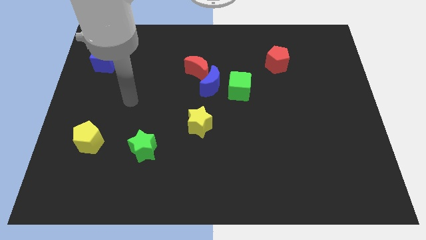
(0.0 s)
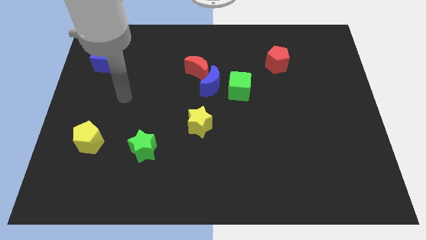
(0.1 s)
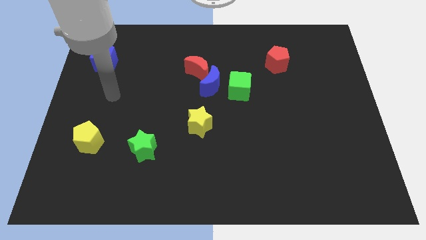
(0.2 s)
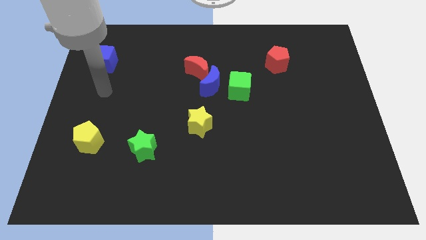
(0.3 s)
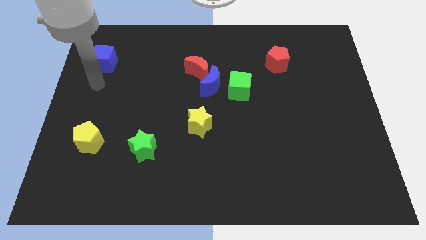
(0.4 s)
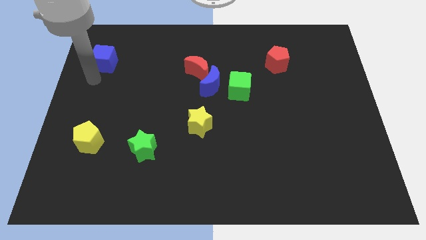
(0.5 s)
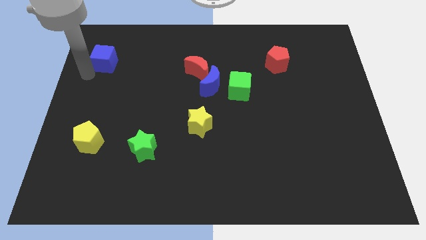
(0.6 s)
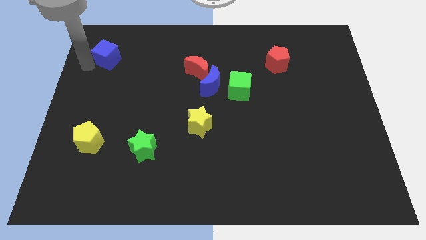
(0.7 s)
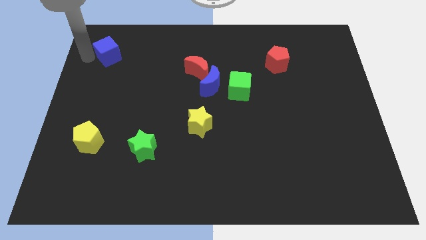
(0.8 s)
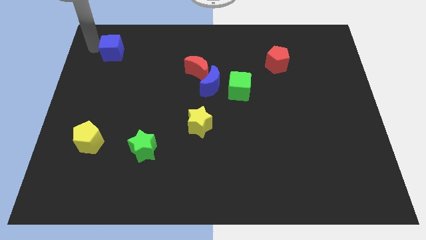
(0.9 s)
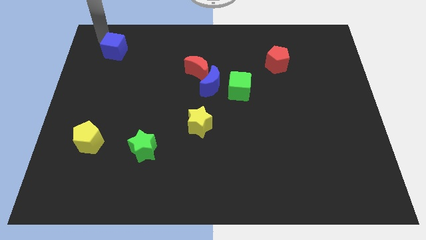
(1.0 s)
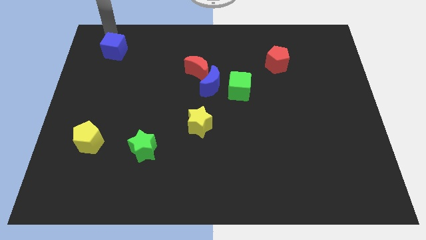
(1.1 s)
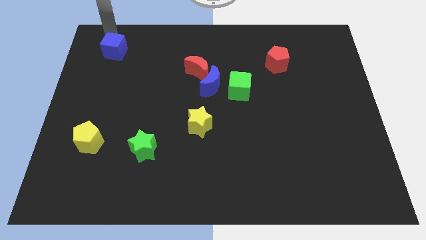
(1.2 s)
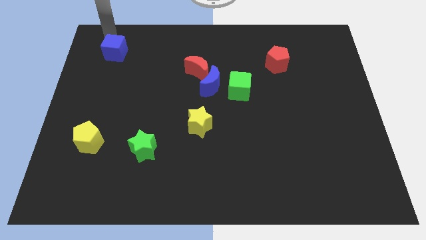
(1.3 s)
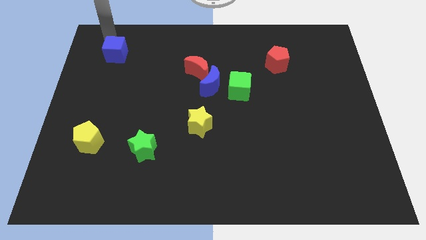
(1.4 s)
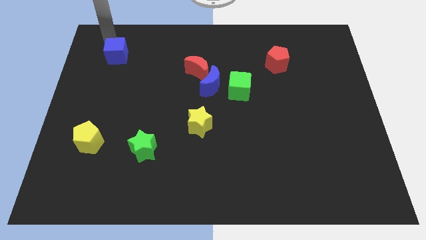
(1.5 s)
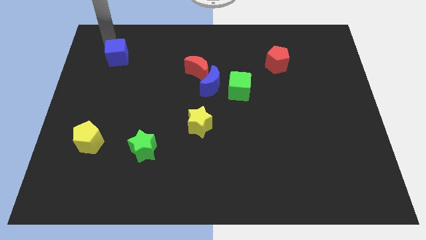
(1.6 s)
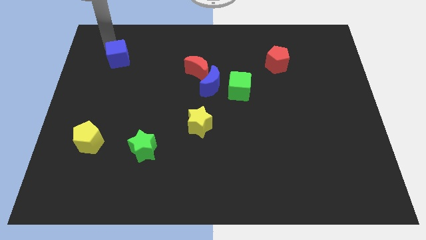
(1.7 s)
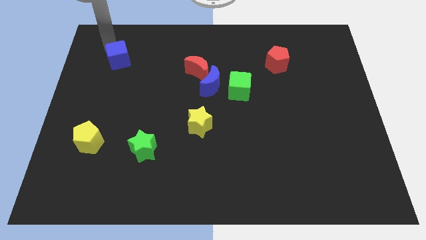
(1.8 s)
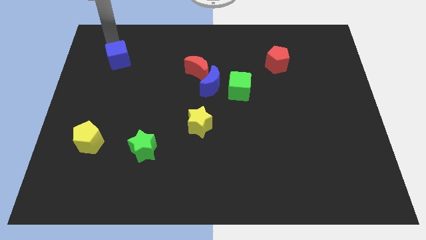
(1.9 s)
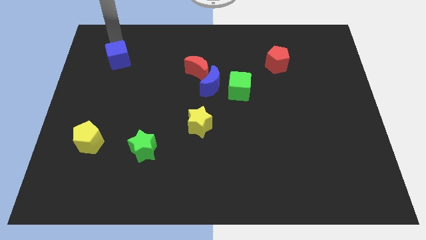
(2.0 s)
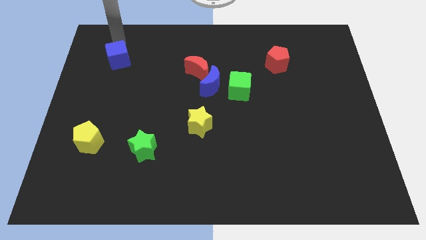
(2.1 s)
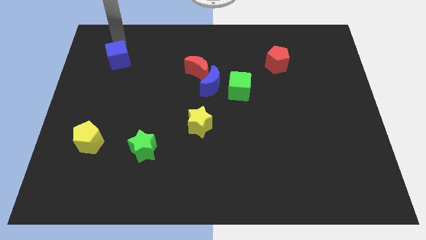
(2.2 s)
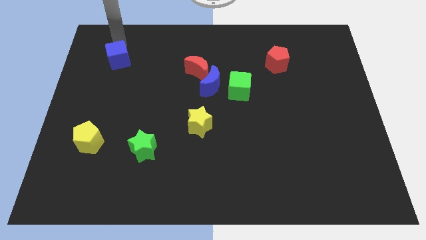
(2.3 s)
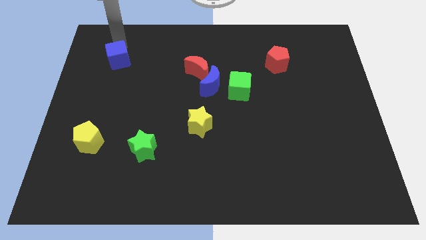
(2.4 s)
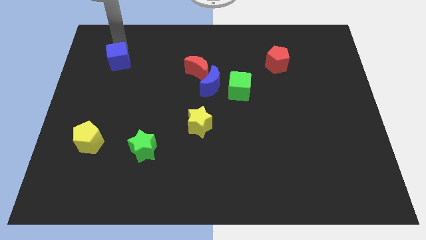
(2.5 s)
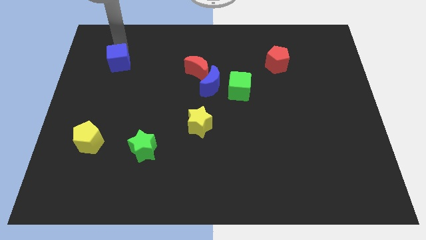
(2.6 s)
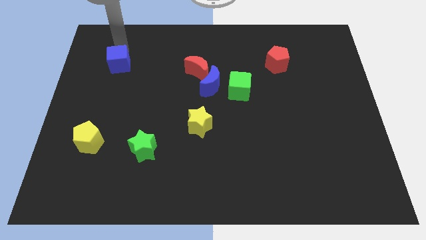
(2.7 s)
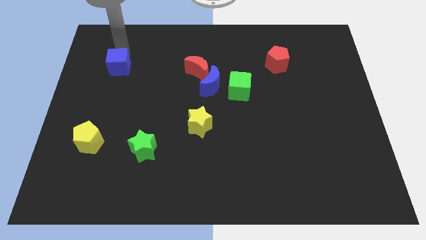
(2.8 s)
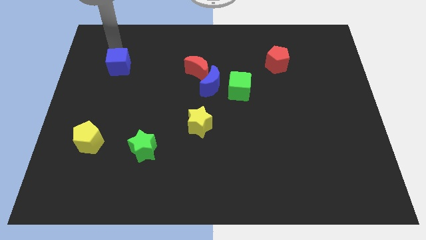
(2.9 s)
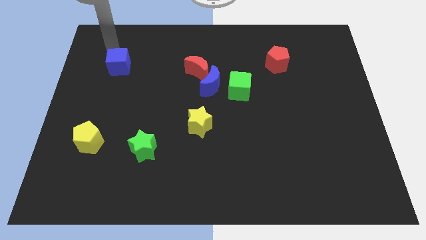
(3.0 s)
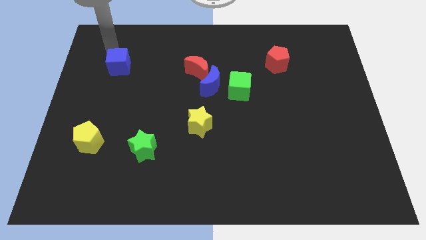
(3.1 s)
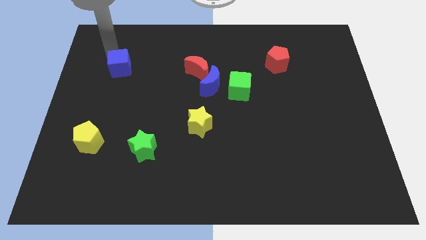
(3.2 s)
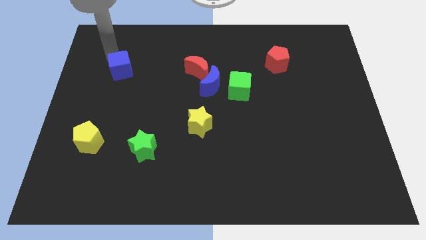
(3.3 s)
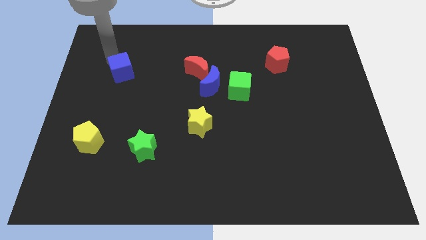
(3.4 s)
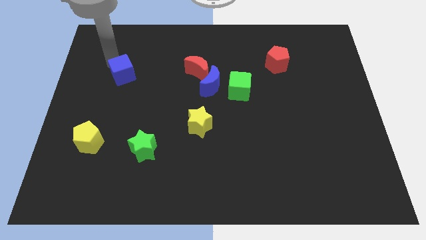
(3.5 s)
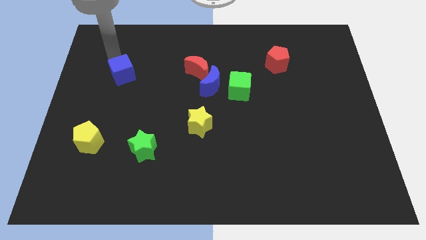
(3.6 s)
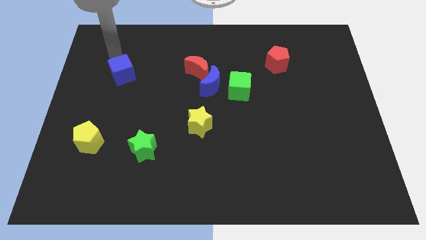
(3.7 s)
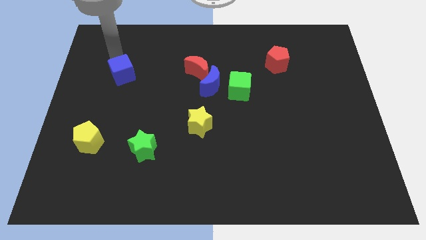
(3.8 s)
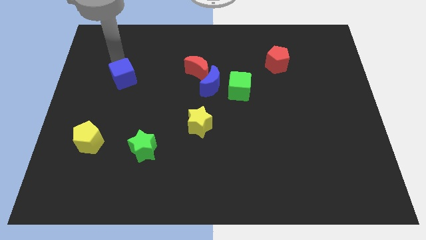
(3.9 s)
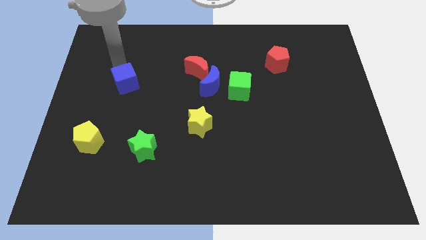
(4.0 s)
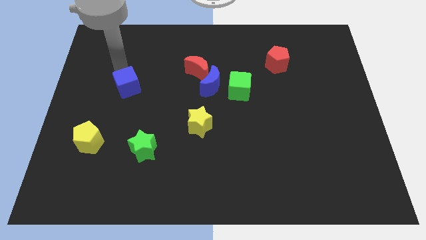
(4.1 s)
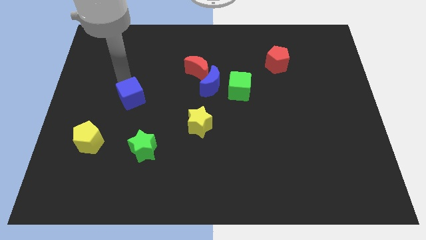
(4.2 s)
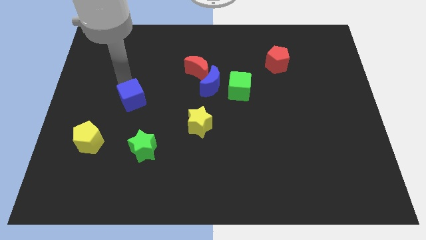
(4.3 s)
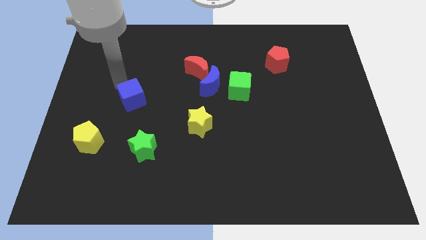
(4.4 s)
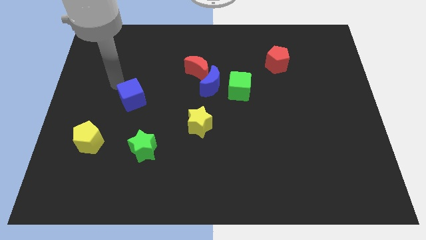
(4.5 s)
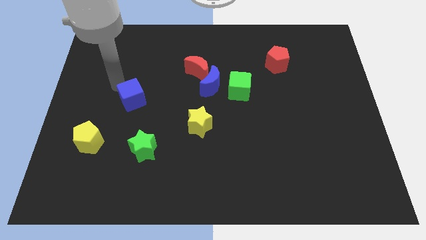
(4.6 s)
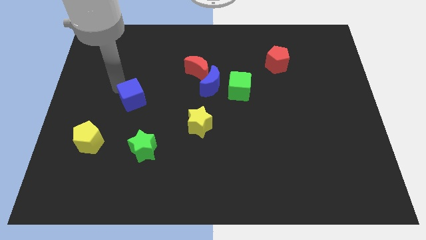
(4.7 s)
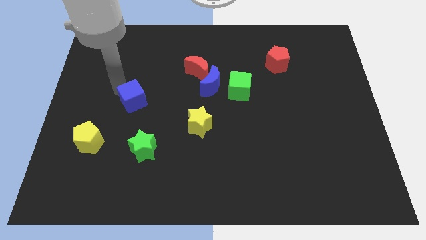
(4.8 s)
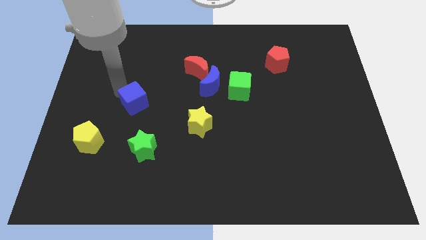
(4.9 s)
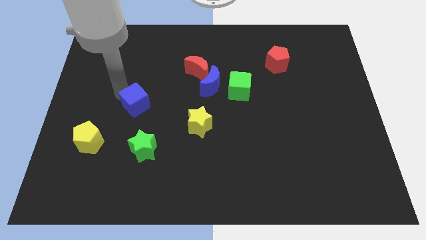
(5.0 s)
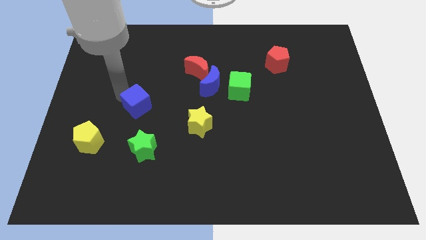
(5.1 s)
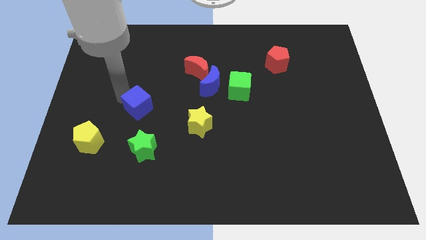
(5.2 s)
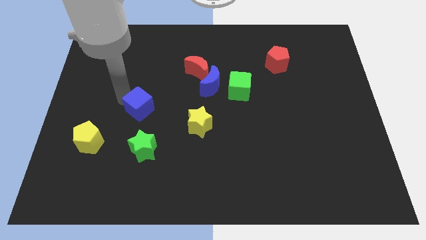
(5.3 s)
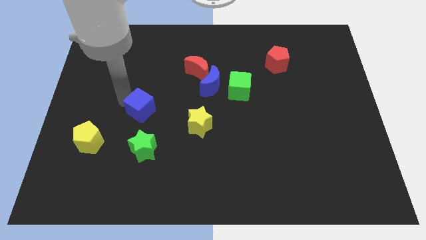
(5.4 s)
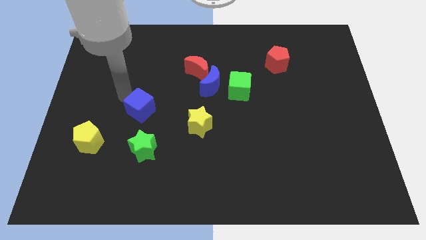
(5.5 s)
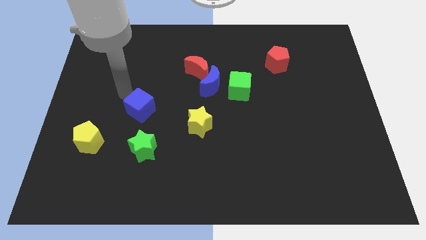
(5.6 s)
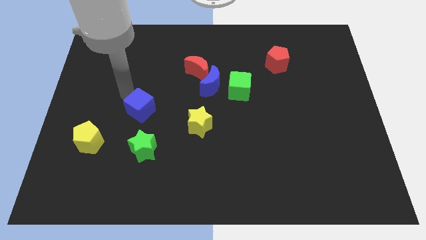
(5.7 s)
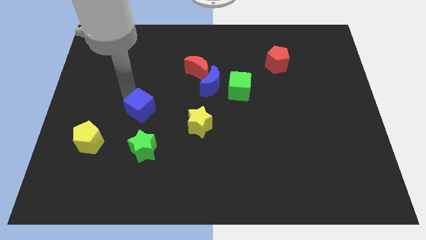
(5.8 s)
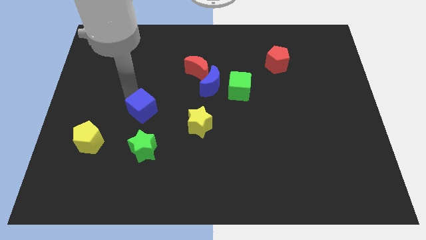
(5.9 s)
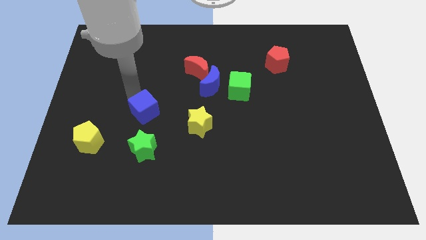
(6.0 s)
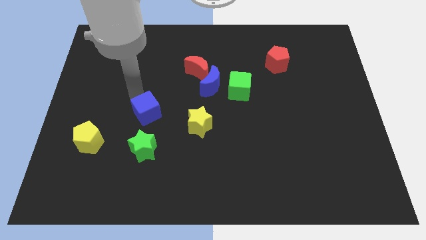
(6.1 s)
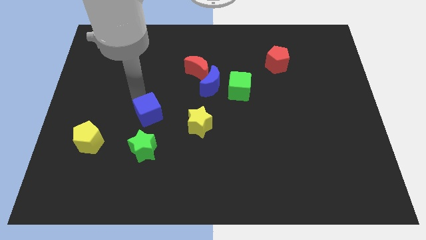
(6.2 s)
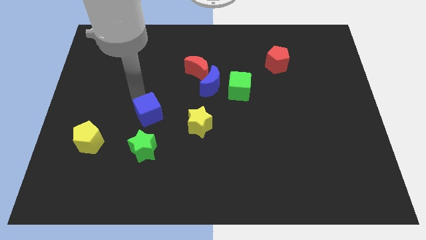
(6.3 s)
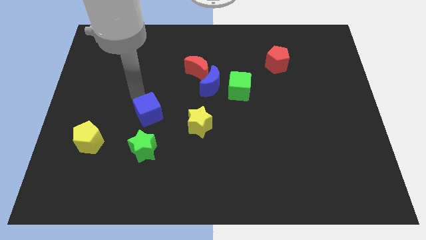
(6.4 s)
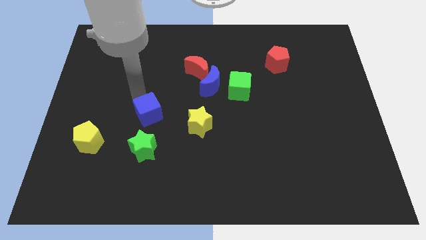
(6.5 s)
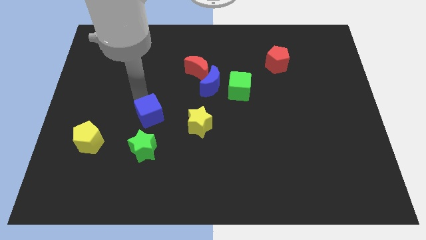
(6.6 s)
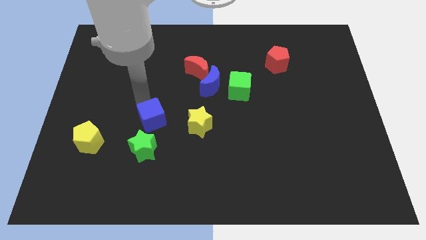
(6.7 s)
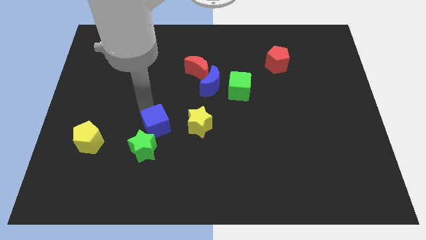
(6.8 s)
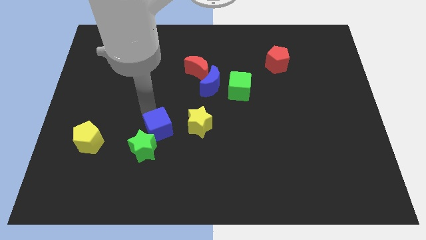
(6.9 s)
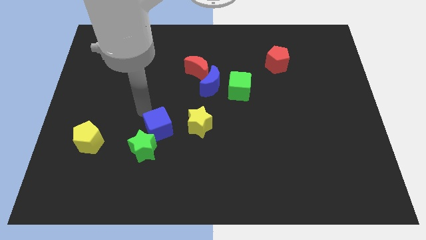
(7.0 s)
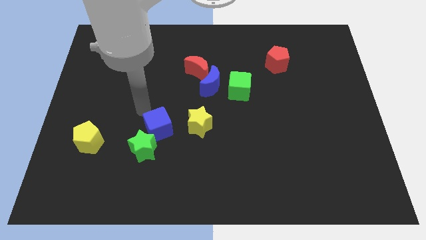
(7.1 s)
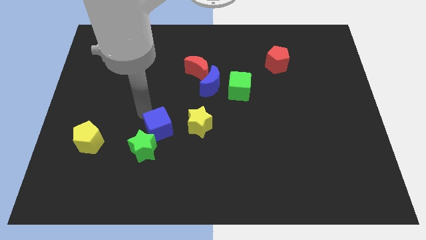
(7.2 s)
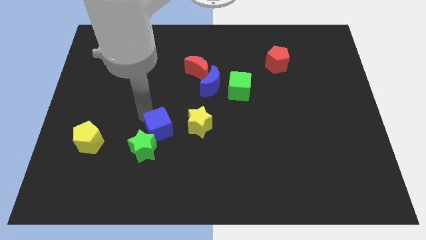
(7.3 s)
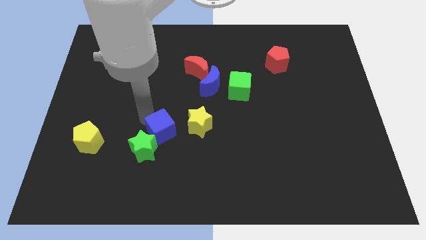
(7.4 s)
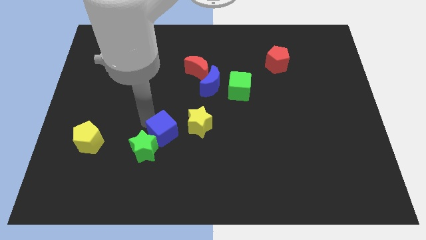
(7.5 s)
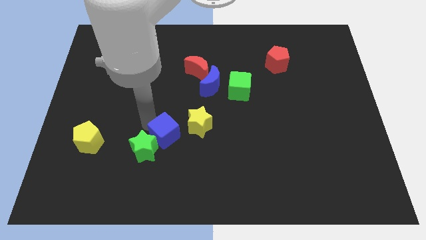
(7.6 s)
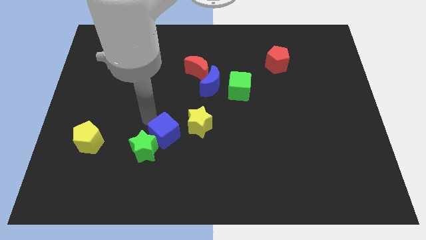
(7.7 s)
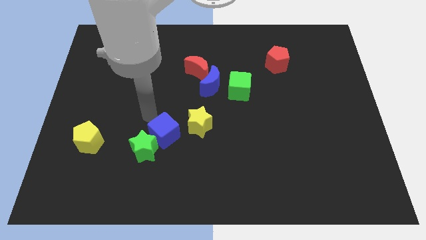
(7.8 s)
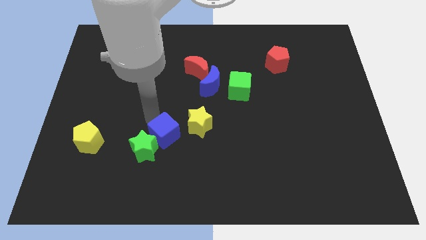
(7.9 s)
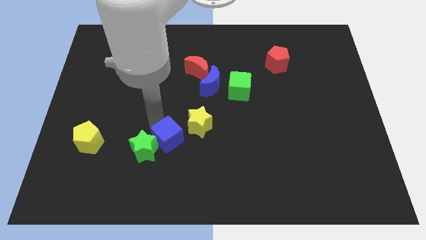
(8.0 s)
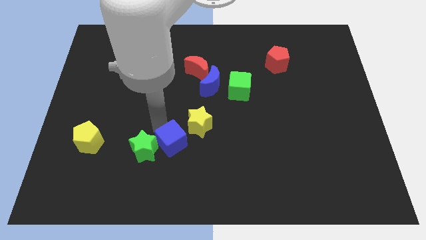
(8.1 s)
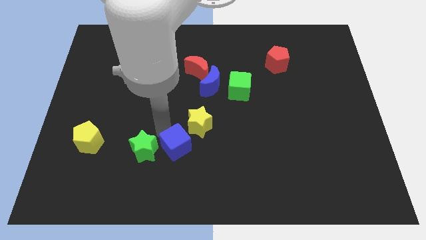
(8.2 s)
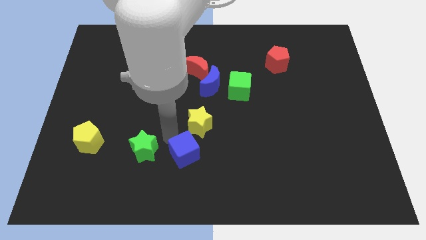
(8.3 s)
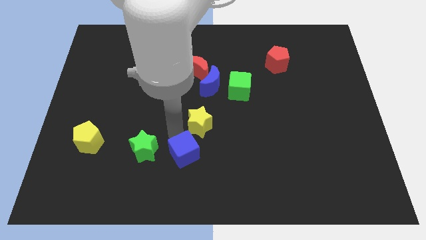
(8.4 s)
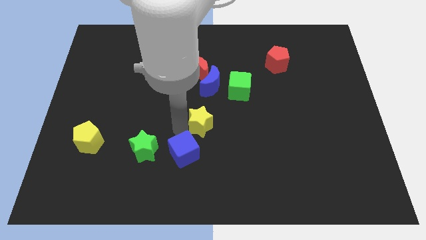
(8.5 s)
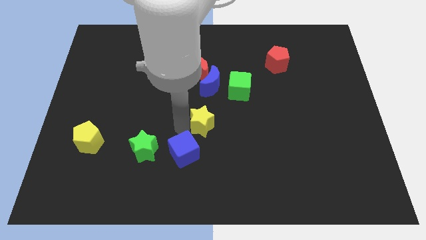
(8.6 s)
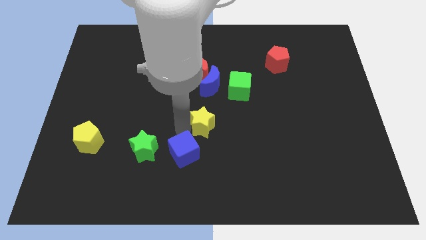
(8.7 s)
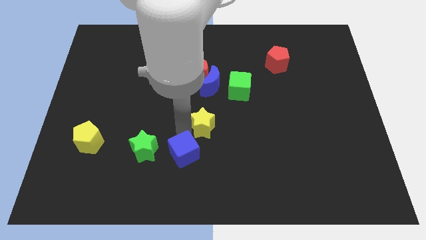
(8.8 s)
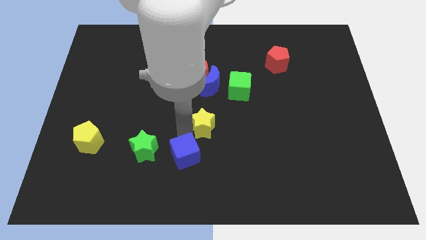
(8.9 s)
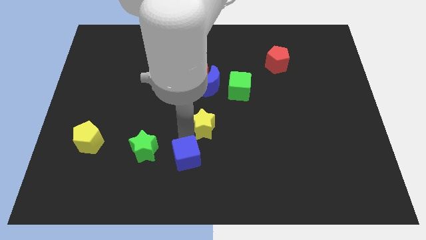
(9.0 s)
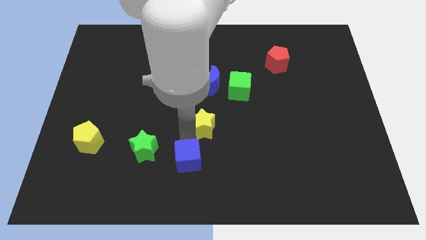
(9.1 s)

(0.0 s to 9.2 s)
slide the blue cube to the bottom side
